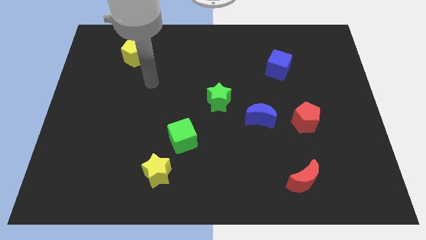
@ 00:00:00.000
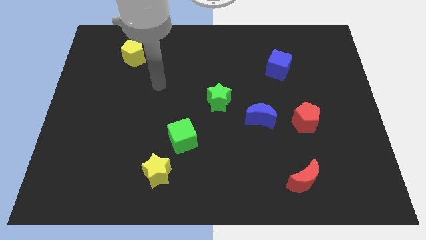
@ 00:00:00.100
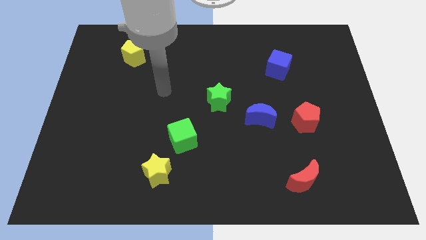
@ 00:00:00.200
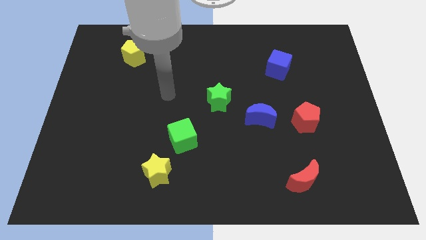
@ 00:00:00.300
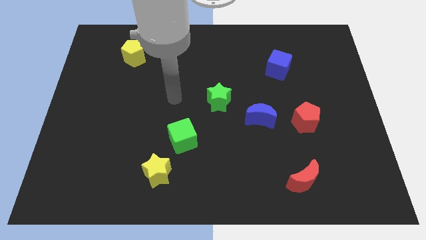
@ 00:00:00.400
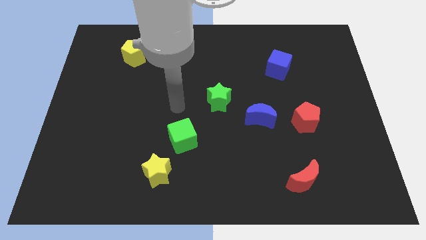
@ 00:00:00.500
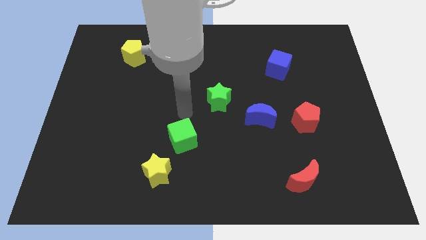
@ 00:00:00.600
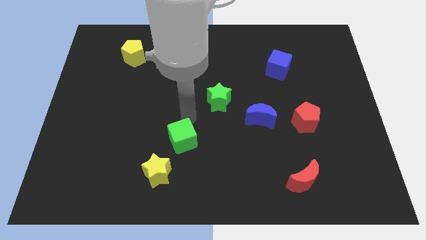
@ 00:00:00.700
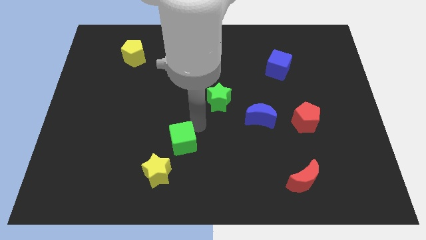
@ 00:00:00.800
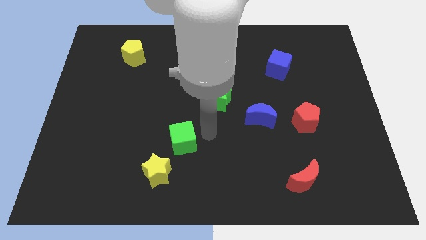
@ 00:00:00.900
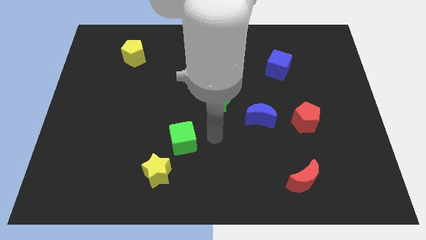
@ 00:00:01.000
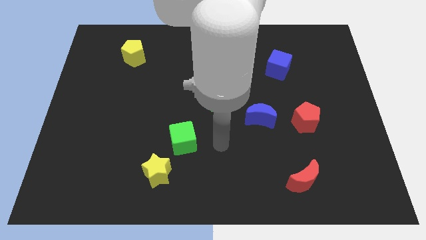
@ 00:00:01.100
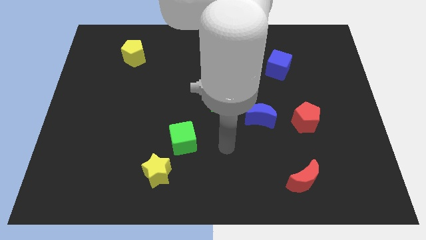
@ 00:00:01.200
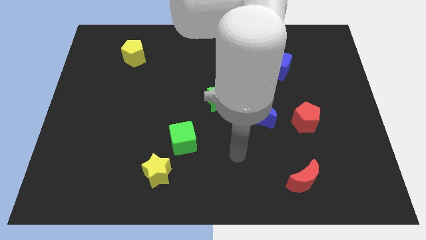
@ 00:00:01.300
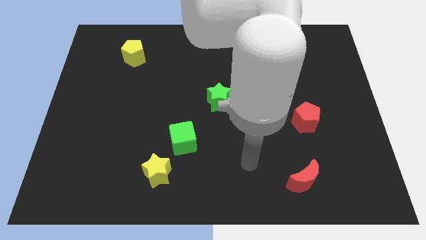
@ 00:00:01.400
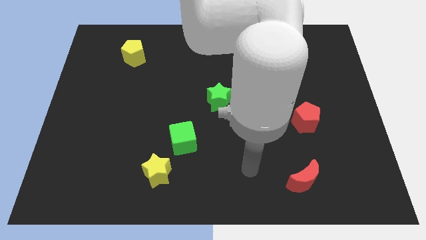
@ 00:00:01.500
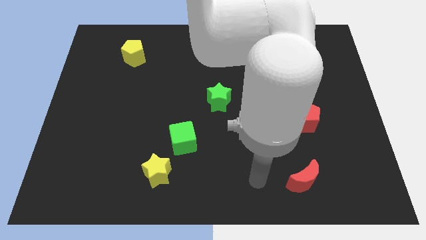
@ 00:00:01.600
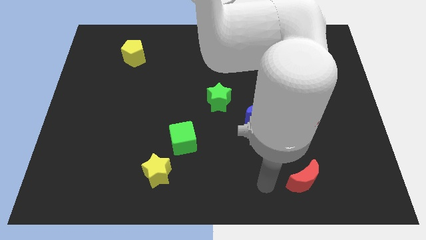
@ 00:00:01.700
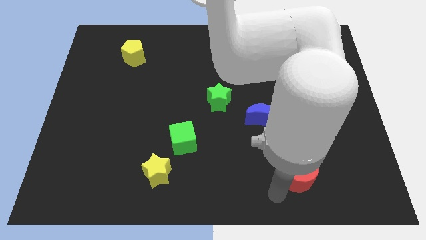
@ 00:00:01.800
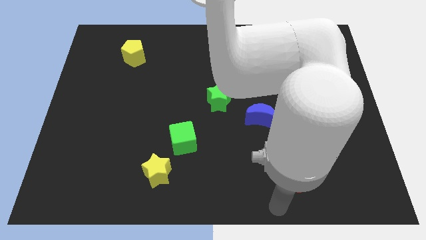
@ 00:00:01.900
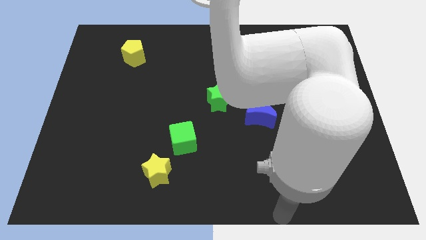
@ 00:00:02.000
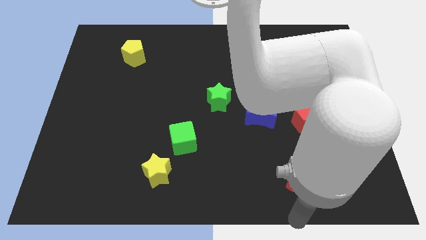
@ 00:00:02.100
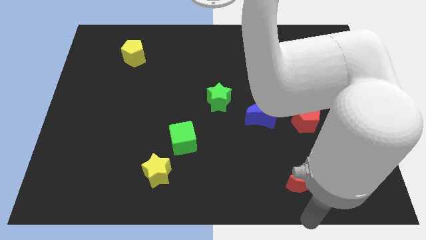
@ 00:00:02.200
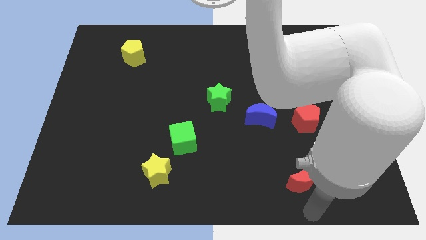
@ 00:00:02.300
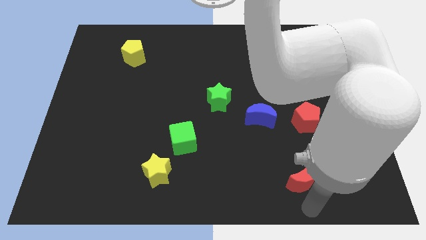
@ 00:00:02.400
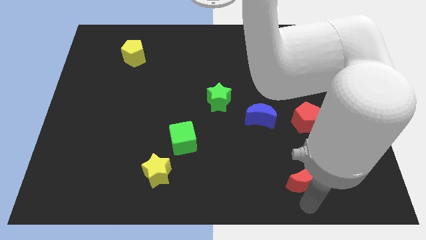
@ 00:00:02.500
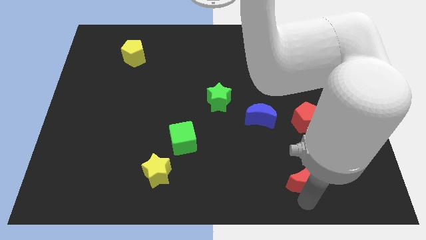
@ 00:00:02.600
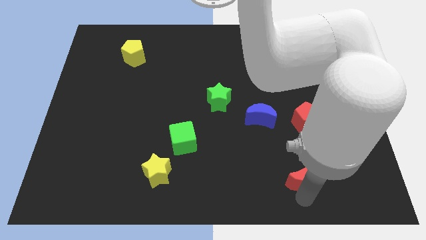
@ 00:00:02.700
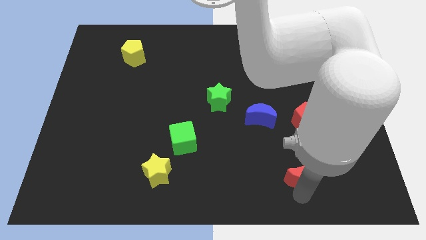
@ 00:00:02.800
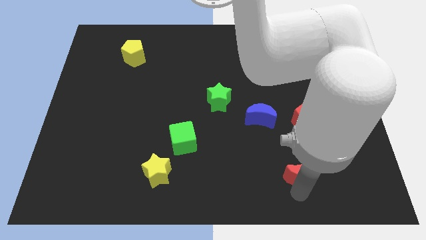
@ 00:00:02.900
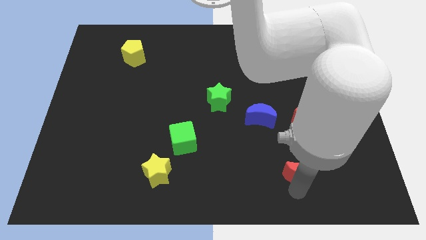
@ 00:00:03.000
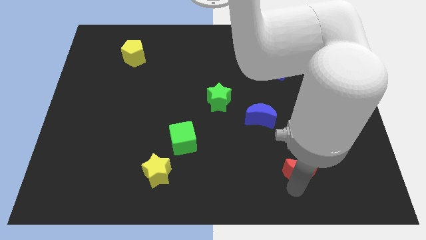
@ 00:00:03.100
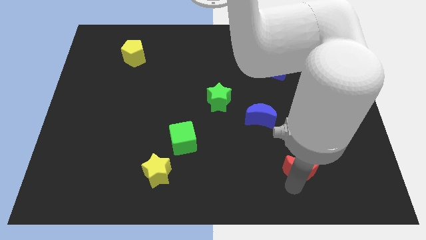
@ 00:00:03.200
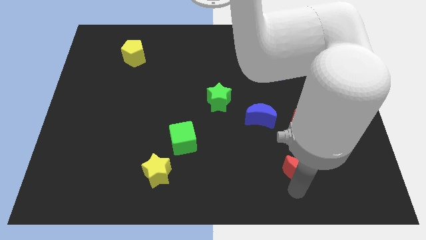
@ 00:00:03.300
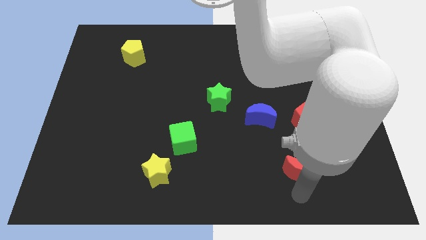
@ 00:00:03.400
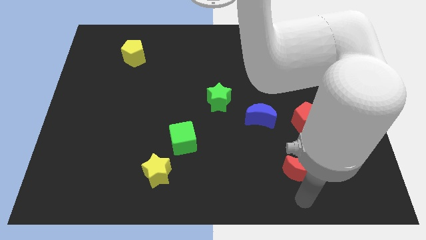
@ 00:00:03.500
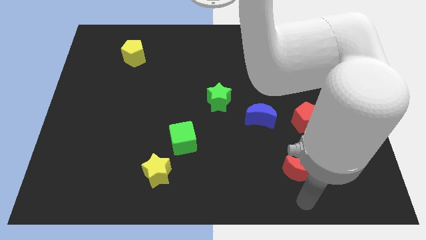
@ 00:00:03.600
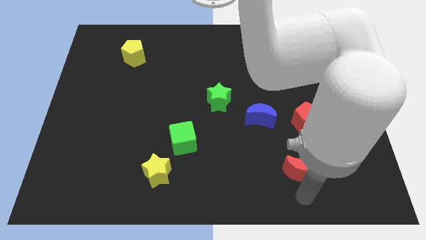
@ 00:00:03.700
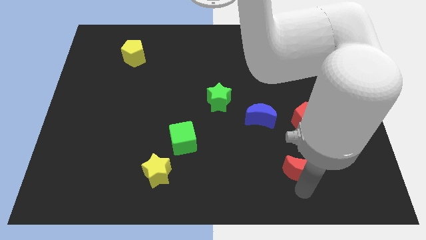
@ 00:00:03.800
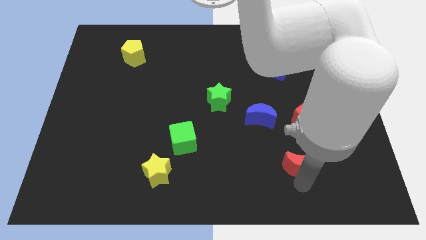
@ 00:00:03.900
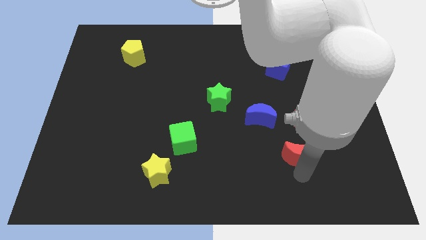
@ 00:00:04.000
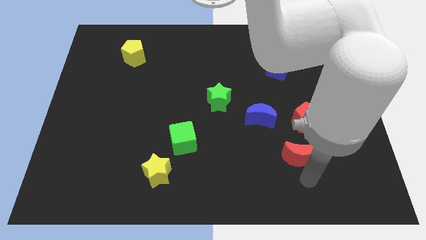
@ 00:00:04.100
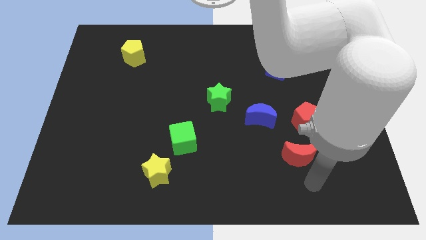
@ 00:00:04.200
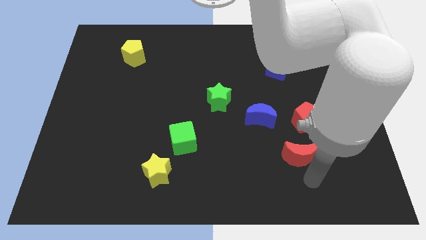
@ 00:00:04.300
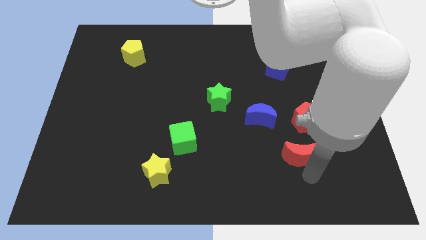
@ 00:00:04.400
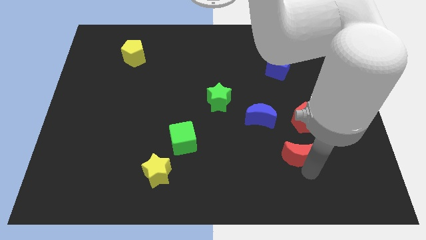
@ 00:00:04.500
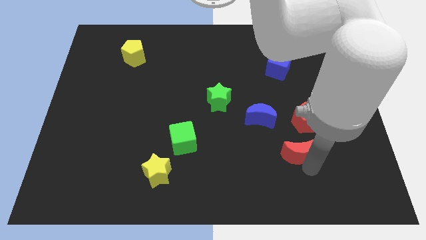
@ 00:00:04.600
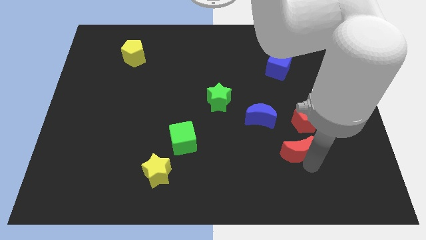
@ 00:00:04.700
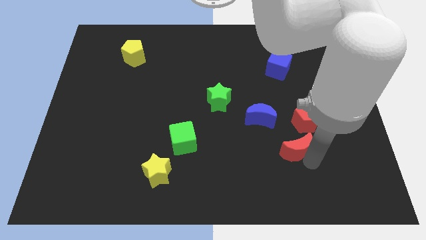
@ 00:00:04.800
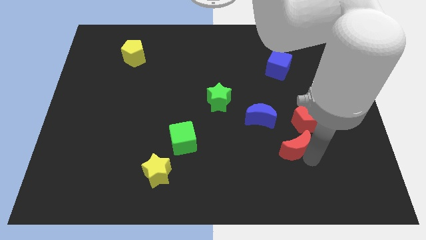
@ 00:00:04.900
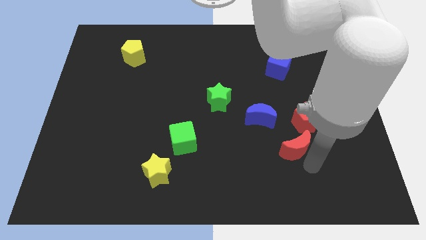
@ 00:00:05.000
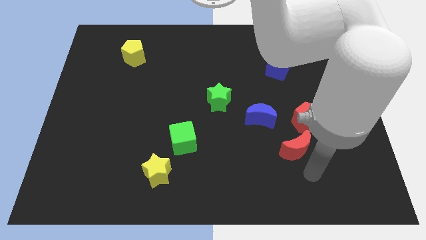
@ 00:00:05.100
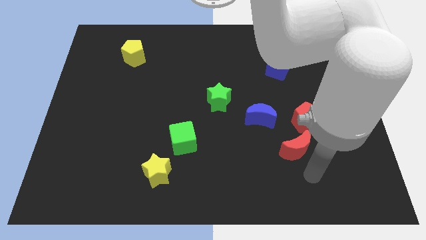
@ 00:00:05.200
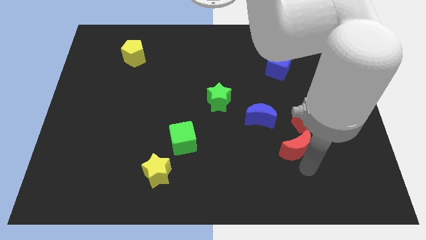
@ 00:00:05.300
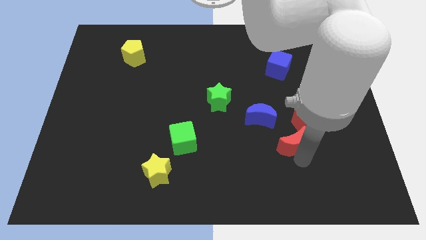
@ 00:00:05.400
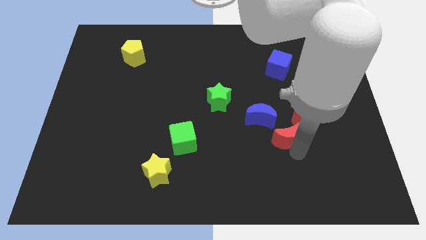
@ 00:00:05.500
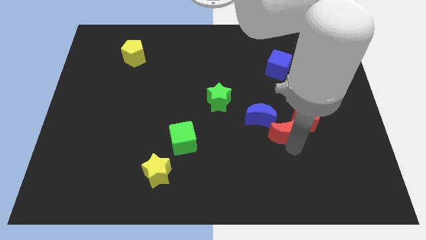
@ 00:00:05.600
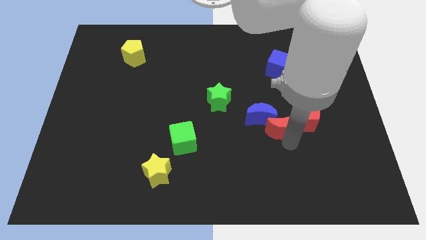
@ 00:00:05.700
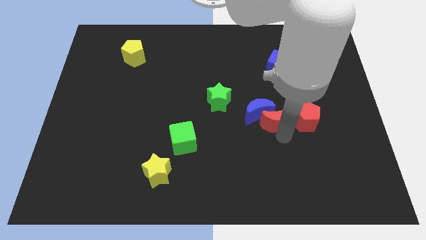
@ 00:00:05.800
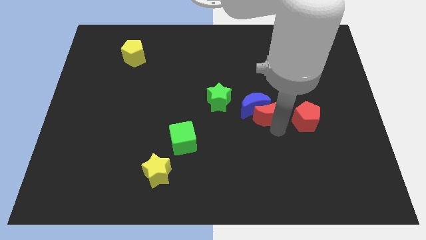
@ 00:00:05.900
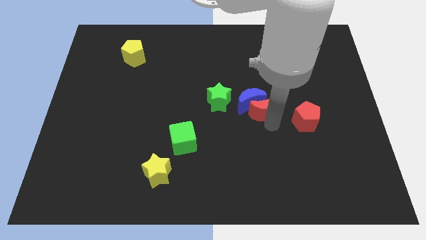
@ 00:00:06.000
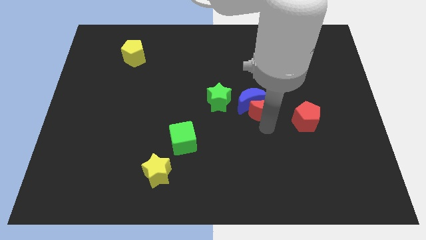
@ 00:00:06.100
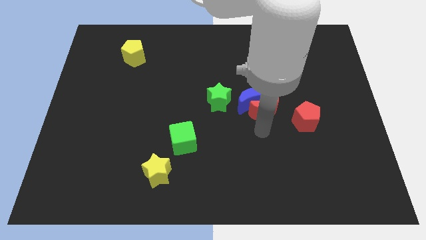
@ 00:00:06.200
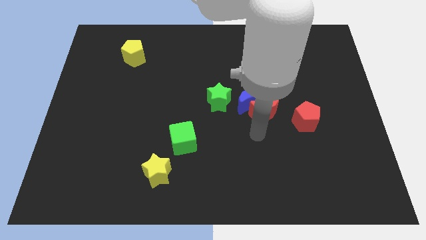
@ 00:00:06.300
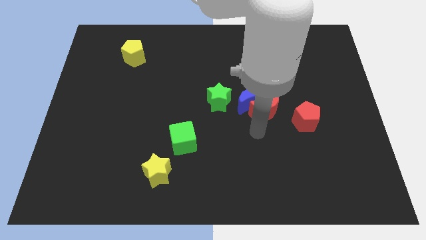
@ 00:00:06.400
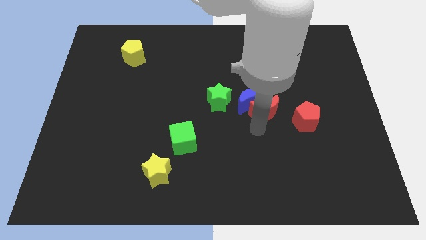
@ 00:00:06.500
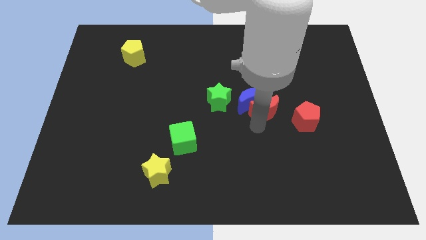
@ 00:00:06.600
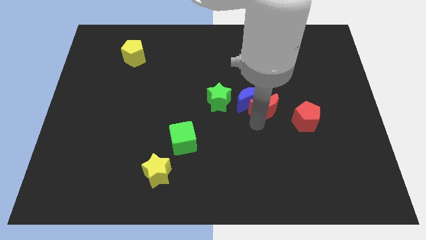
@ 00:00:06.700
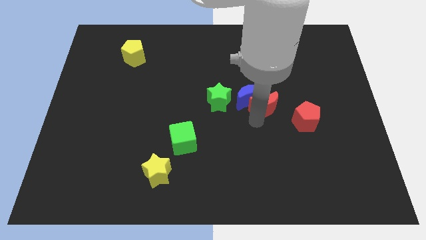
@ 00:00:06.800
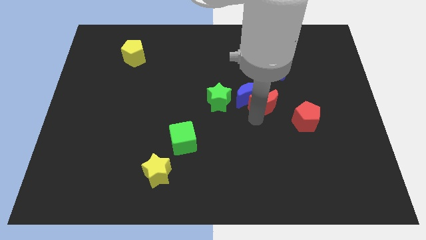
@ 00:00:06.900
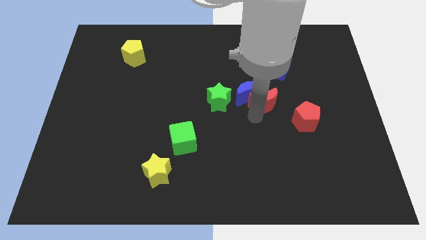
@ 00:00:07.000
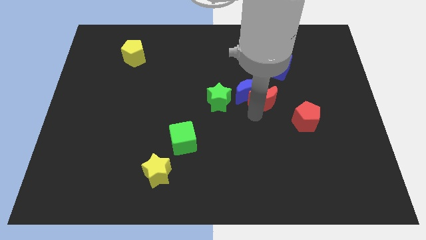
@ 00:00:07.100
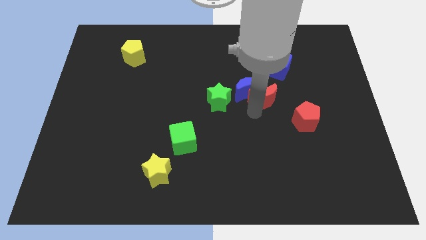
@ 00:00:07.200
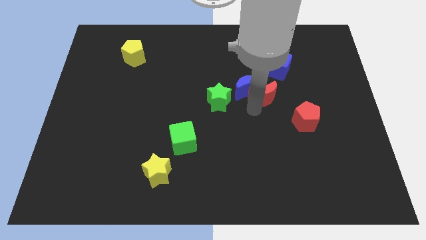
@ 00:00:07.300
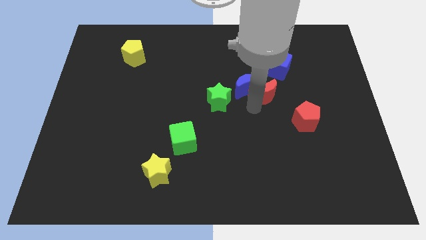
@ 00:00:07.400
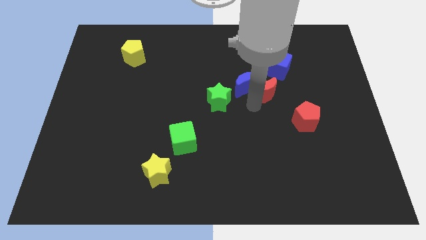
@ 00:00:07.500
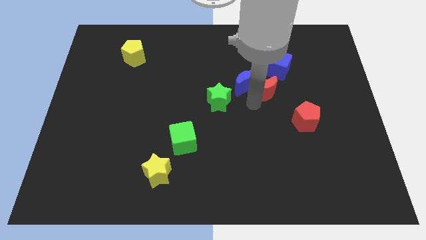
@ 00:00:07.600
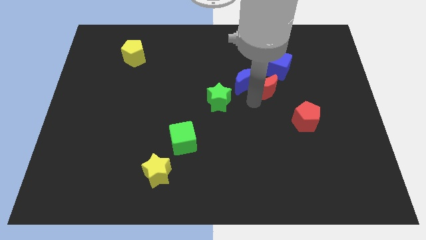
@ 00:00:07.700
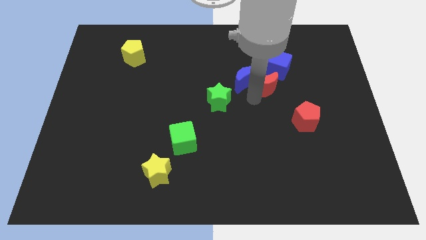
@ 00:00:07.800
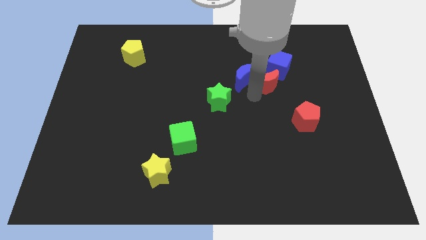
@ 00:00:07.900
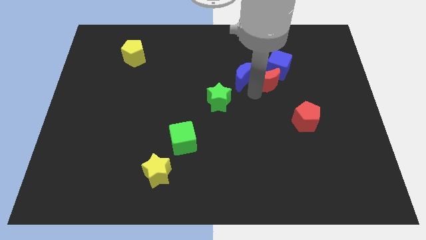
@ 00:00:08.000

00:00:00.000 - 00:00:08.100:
put the red moon towards the blue cube
